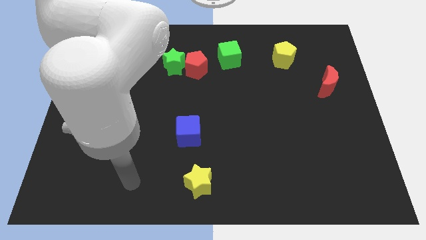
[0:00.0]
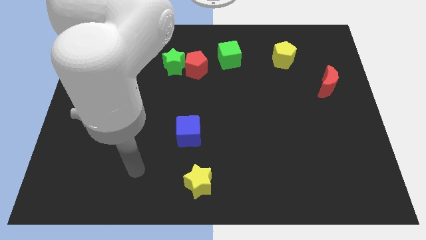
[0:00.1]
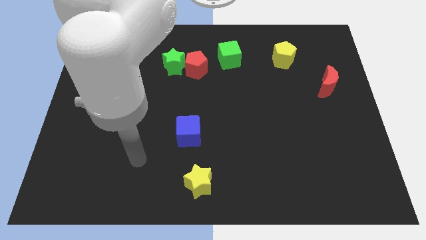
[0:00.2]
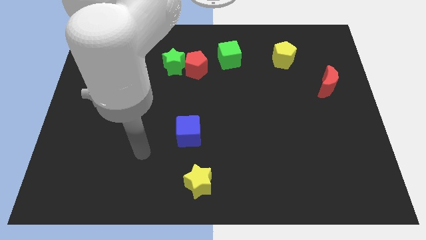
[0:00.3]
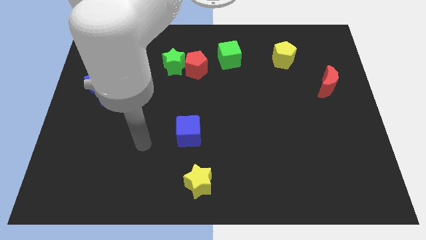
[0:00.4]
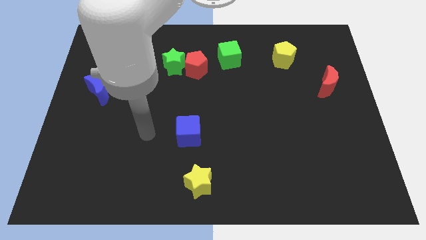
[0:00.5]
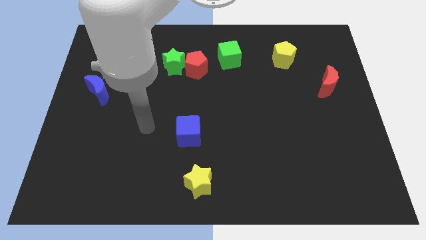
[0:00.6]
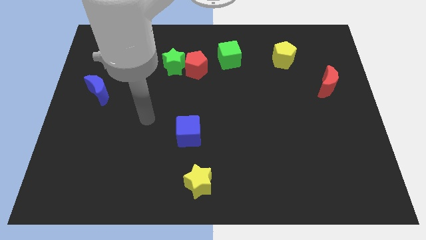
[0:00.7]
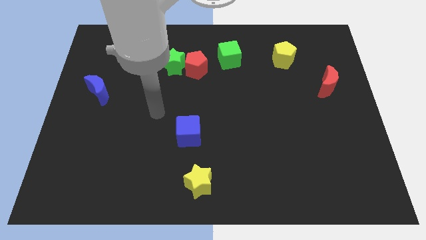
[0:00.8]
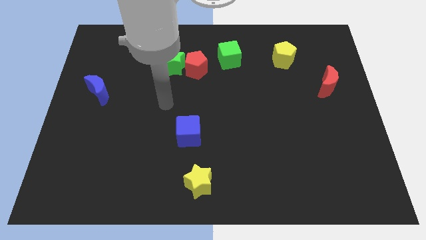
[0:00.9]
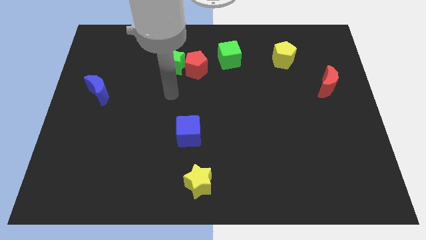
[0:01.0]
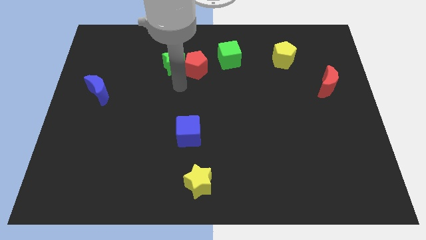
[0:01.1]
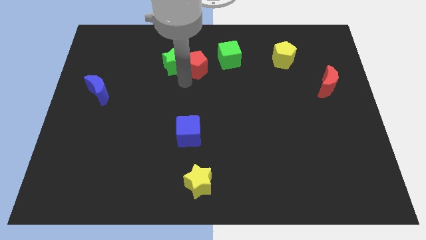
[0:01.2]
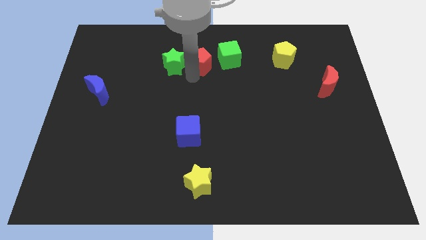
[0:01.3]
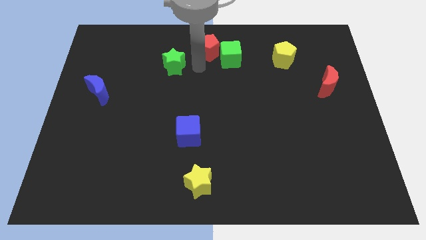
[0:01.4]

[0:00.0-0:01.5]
move the green star away from the red pentagon

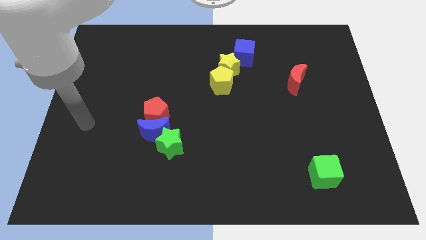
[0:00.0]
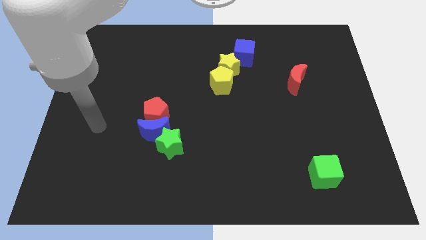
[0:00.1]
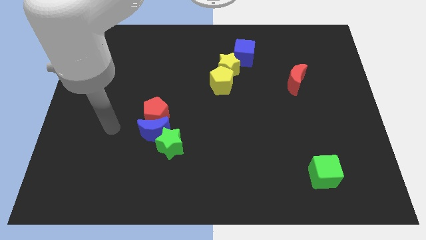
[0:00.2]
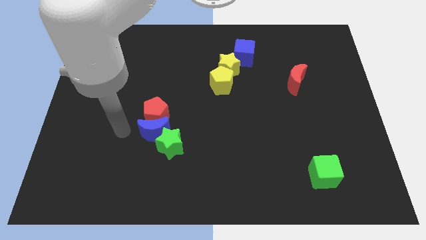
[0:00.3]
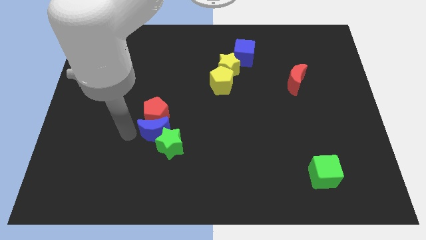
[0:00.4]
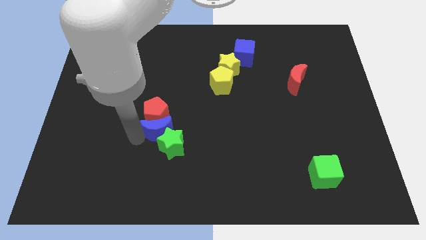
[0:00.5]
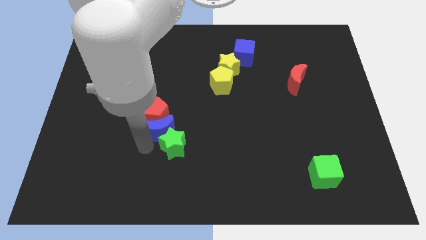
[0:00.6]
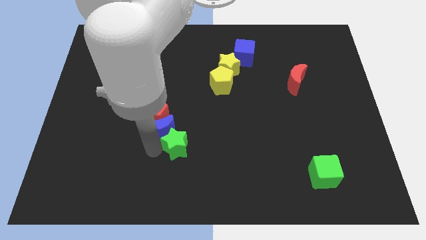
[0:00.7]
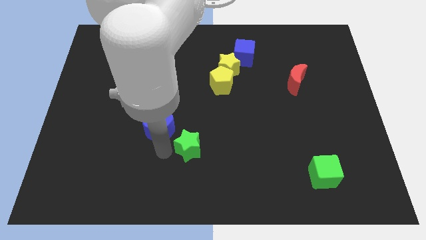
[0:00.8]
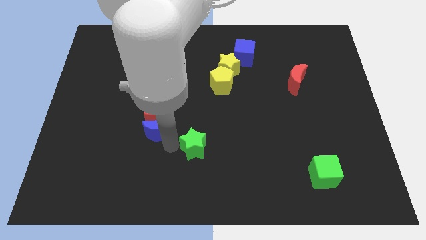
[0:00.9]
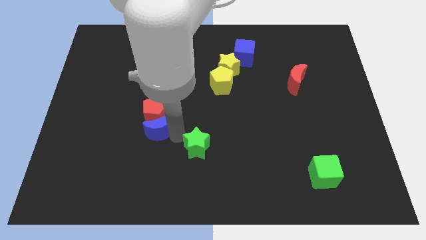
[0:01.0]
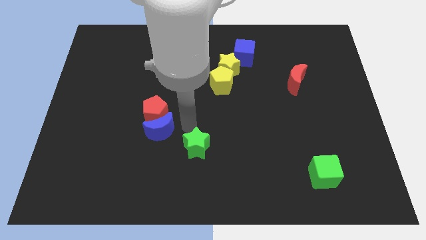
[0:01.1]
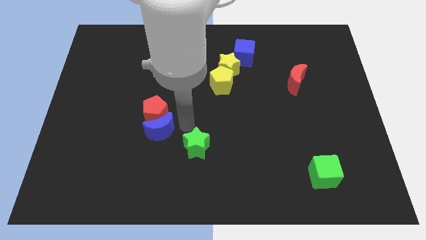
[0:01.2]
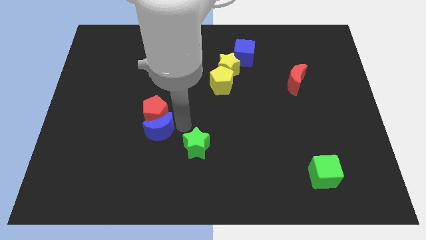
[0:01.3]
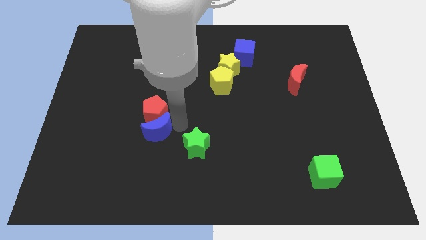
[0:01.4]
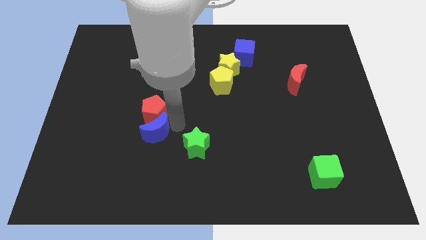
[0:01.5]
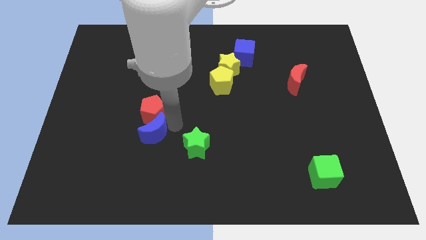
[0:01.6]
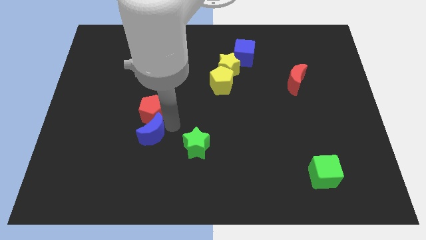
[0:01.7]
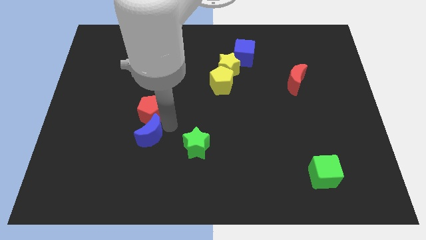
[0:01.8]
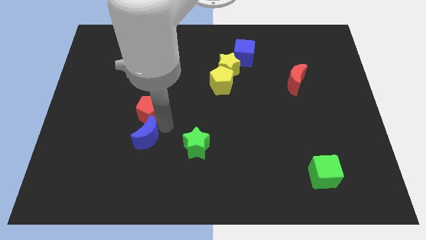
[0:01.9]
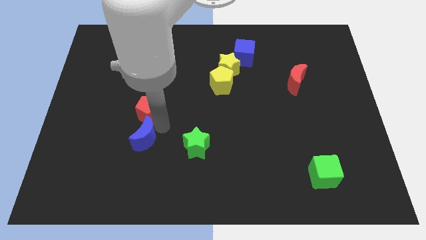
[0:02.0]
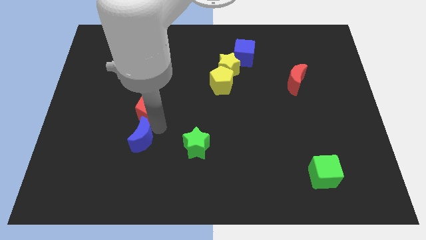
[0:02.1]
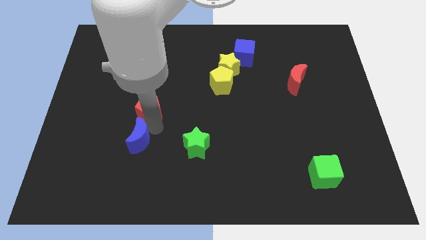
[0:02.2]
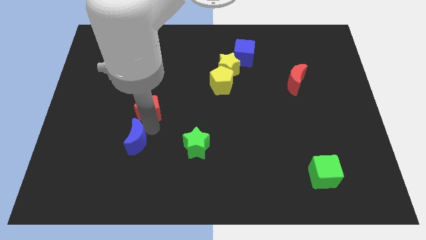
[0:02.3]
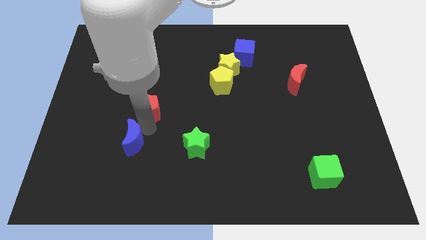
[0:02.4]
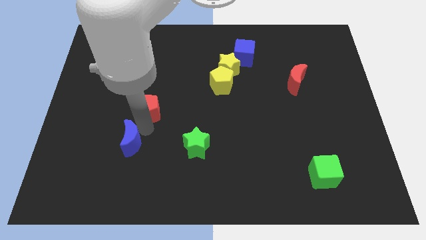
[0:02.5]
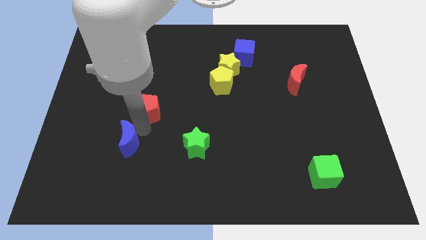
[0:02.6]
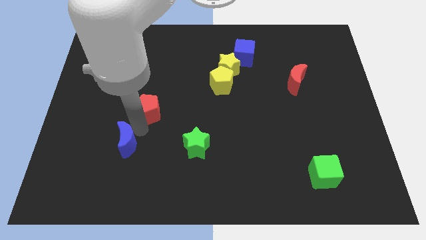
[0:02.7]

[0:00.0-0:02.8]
pull the blue moon apart from the red pentagon and green star

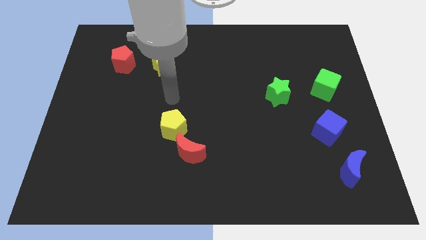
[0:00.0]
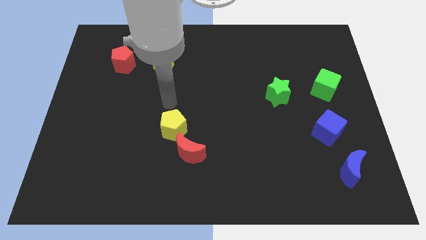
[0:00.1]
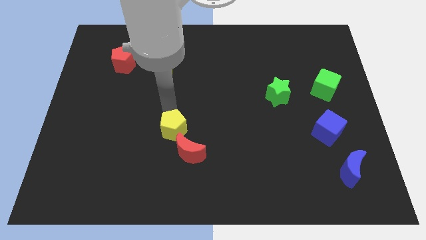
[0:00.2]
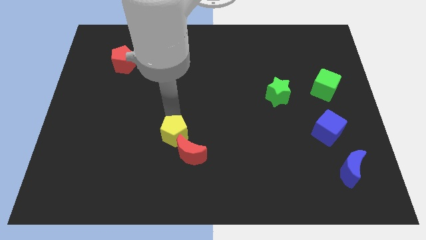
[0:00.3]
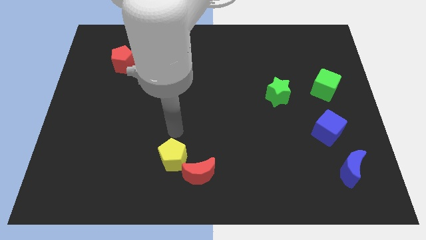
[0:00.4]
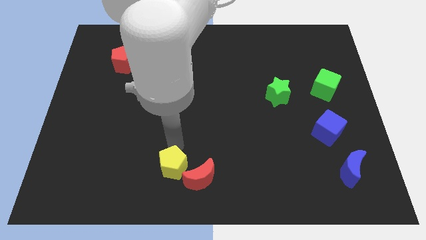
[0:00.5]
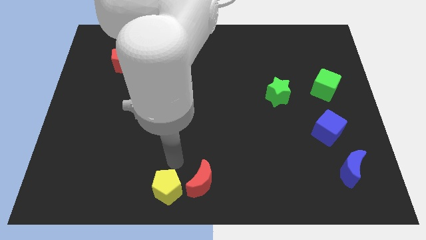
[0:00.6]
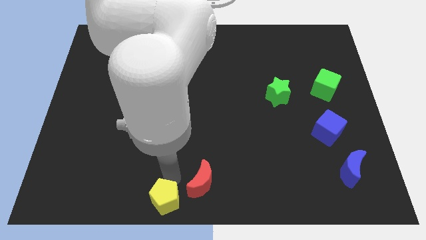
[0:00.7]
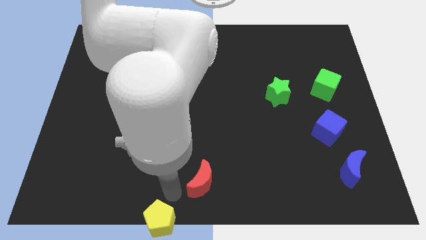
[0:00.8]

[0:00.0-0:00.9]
separate the red moon from the yellow pentagon

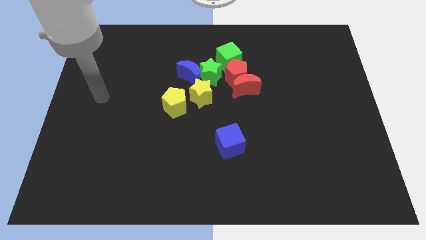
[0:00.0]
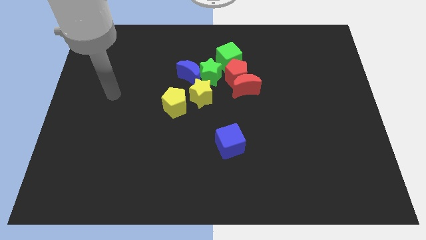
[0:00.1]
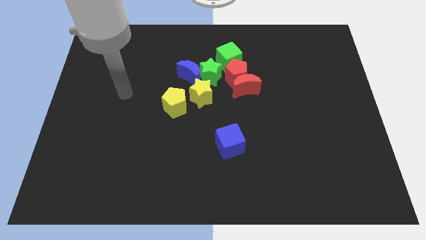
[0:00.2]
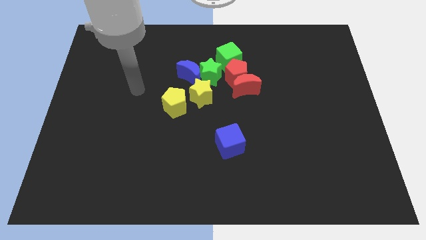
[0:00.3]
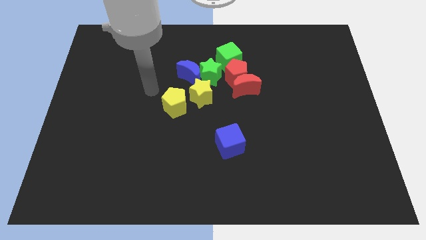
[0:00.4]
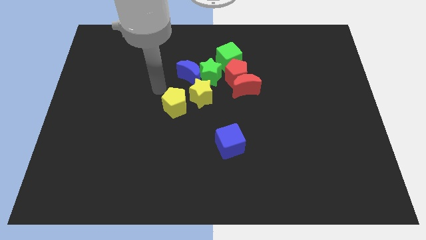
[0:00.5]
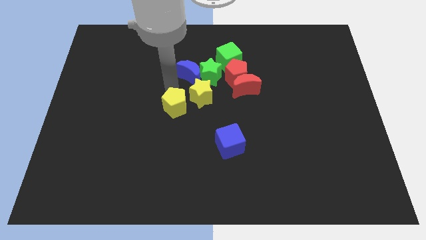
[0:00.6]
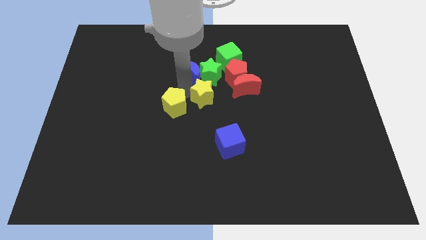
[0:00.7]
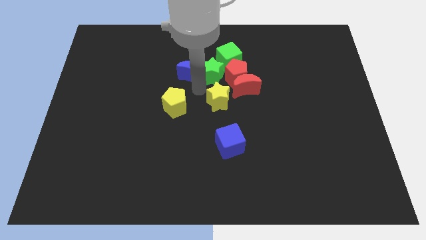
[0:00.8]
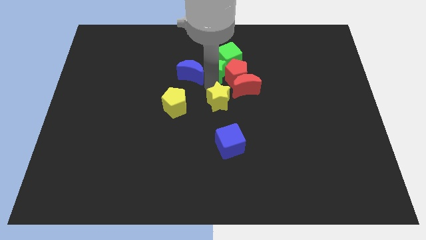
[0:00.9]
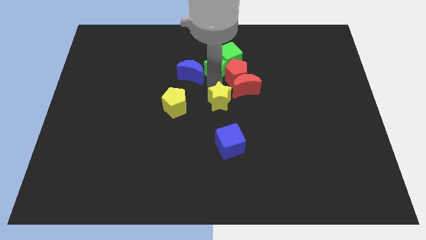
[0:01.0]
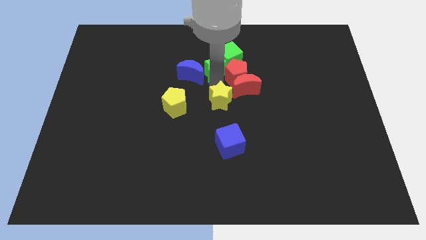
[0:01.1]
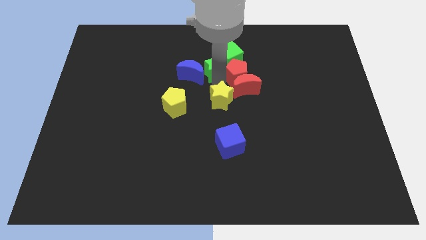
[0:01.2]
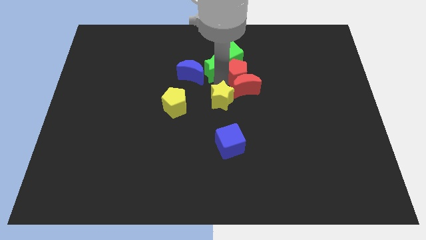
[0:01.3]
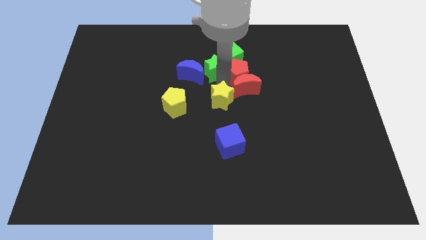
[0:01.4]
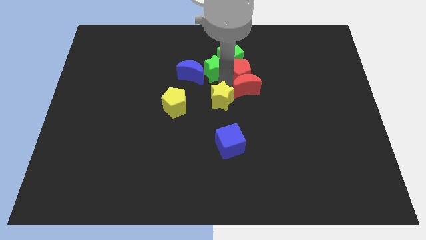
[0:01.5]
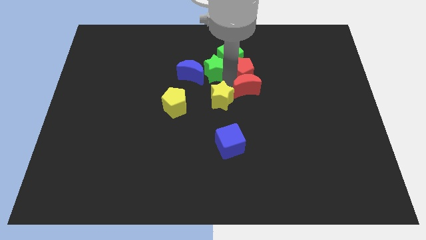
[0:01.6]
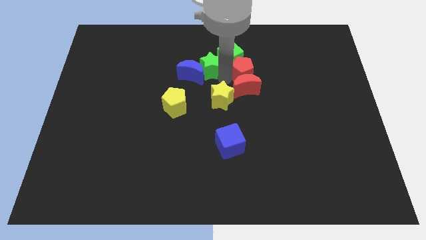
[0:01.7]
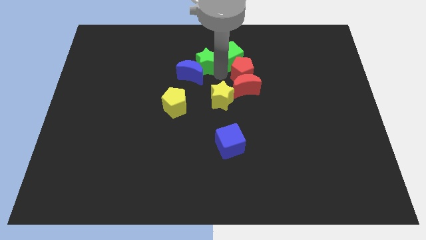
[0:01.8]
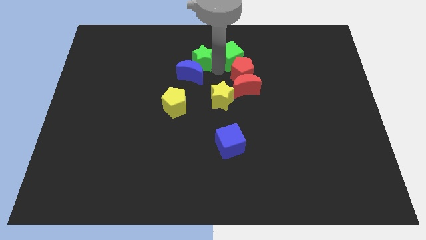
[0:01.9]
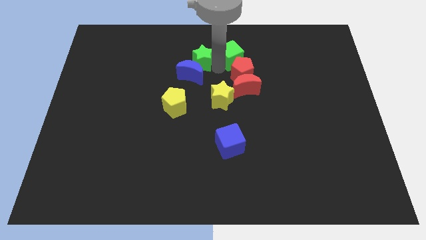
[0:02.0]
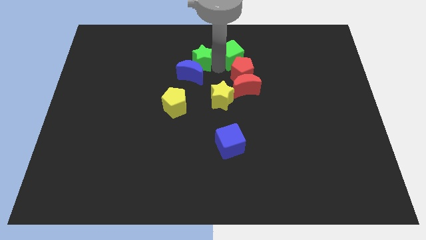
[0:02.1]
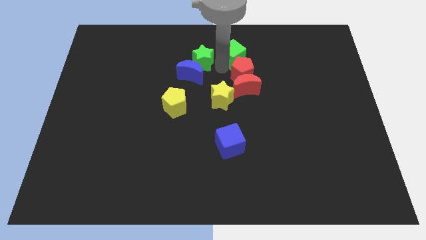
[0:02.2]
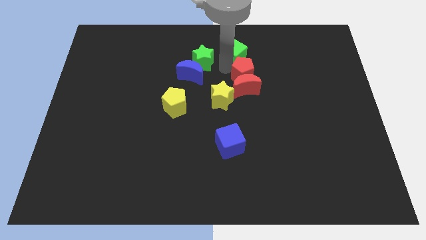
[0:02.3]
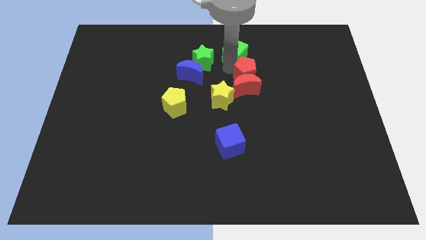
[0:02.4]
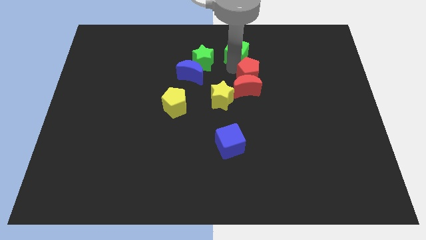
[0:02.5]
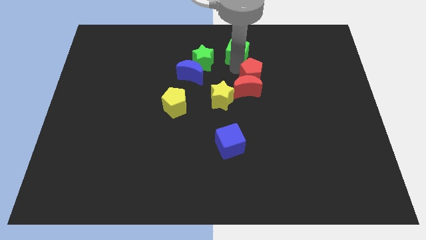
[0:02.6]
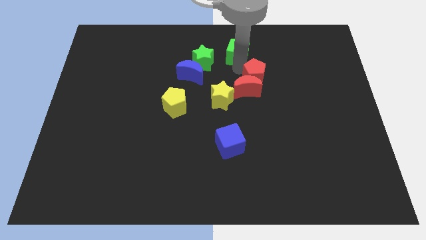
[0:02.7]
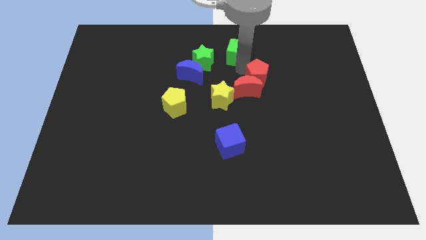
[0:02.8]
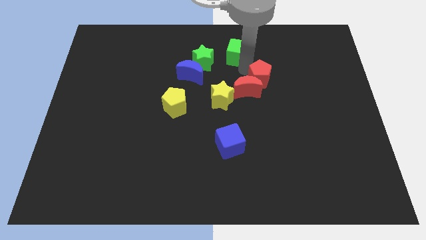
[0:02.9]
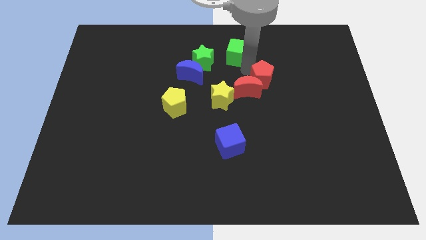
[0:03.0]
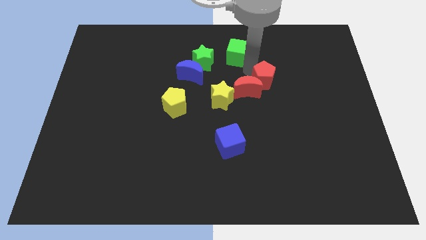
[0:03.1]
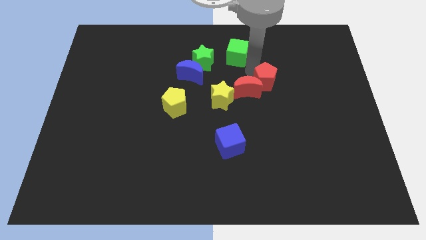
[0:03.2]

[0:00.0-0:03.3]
pull the red pentagon apart from the clump

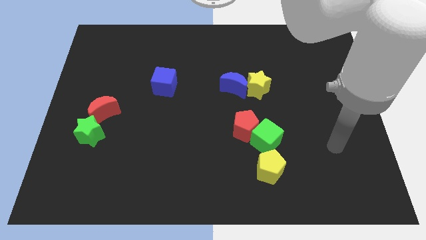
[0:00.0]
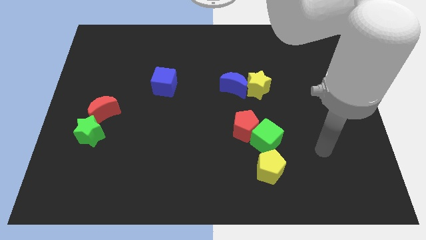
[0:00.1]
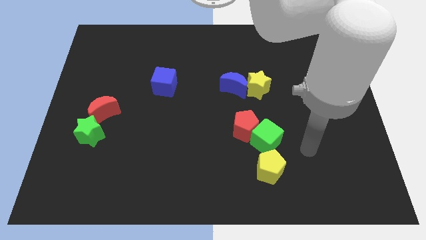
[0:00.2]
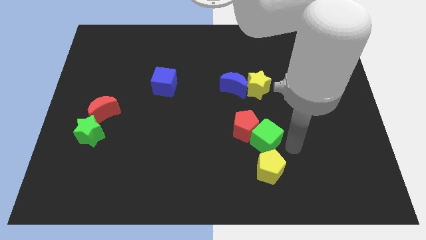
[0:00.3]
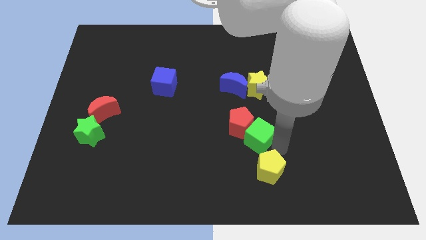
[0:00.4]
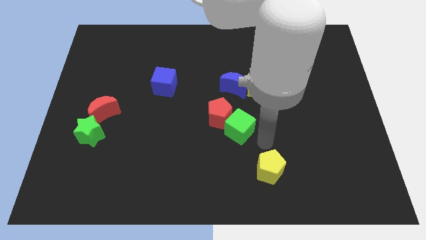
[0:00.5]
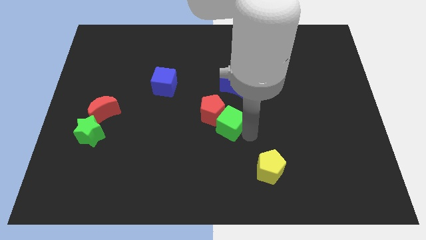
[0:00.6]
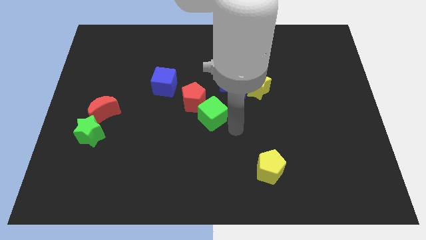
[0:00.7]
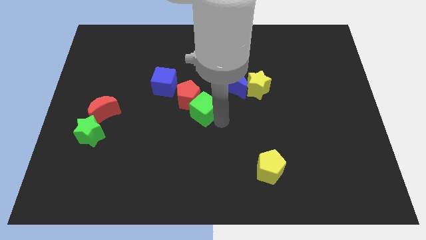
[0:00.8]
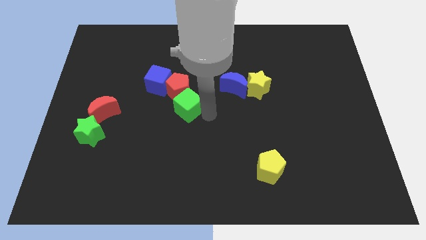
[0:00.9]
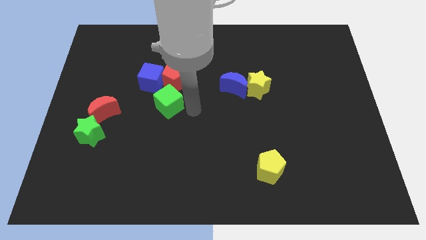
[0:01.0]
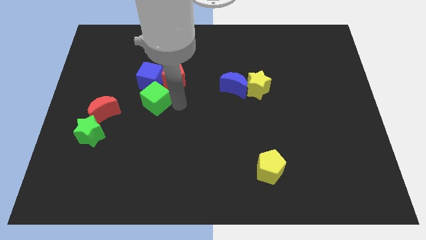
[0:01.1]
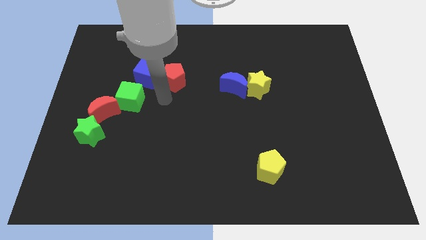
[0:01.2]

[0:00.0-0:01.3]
move the red pentagon away from the green cube
